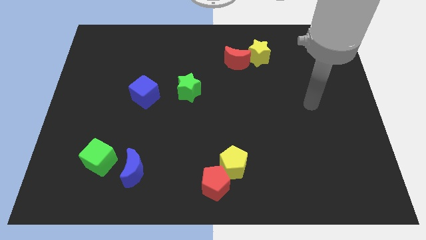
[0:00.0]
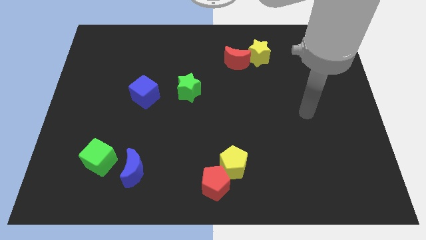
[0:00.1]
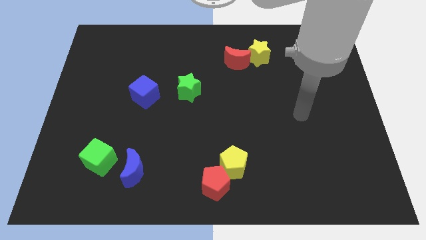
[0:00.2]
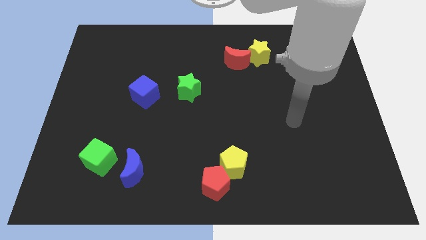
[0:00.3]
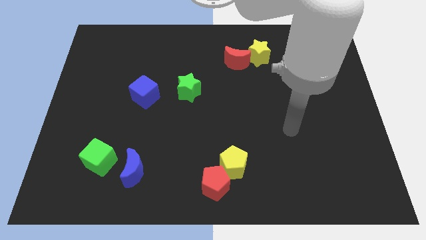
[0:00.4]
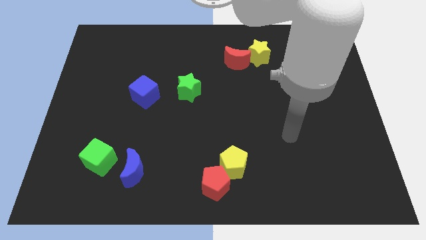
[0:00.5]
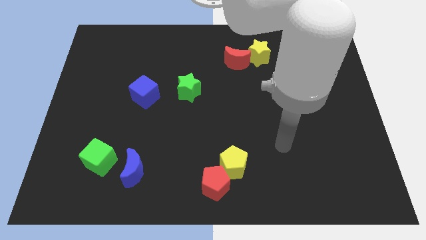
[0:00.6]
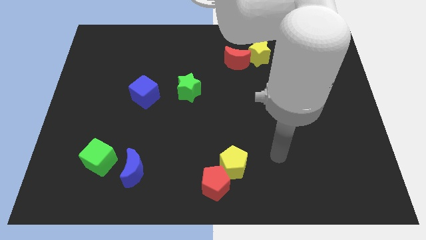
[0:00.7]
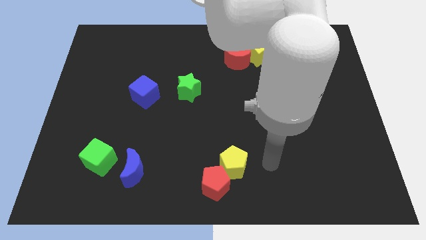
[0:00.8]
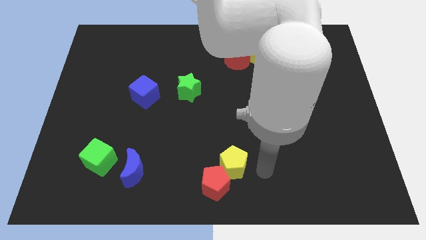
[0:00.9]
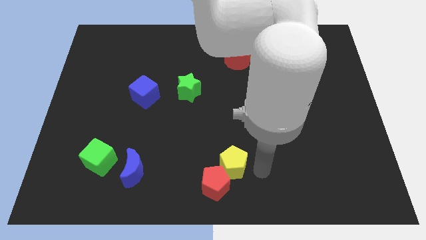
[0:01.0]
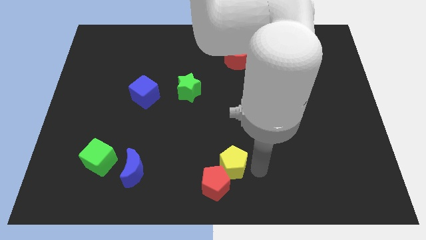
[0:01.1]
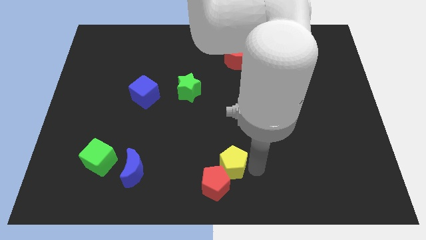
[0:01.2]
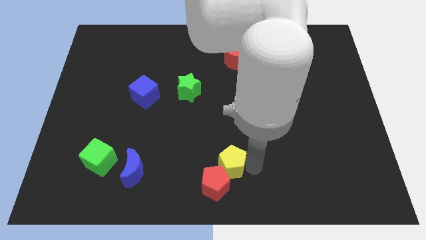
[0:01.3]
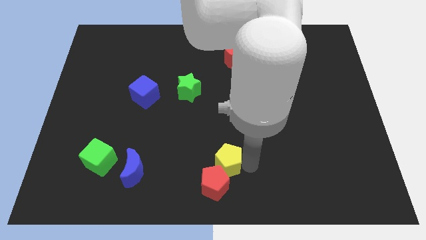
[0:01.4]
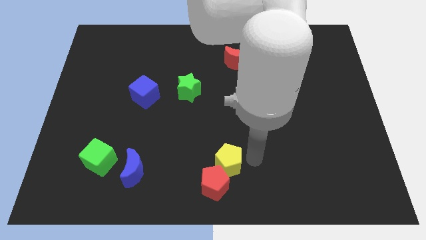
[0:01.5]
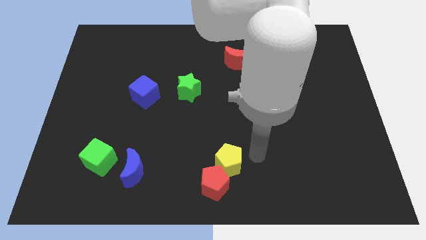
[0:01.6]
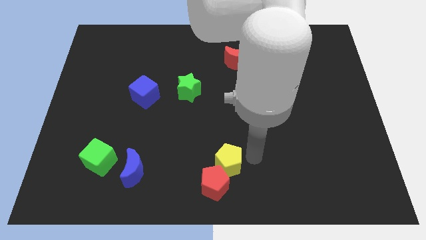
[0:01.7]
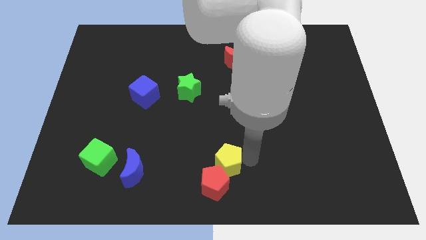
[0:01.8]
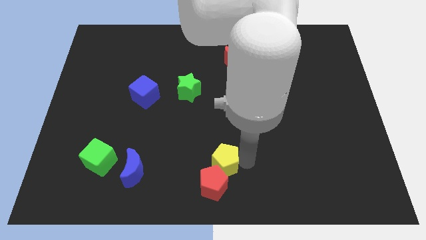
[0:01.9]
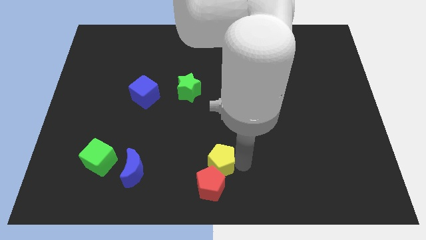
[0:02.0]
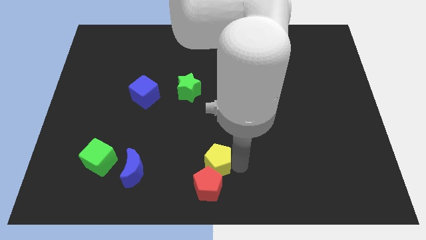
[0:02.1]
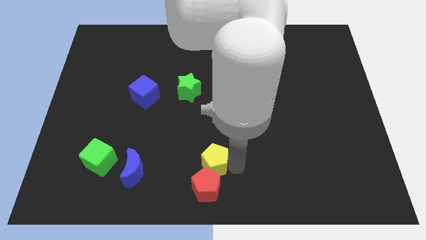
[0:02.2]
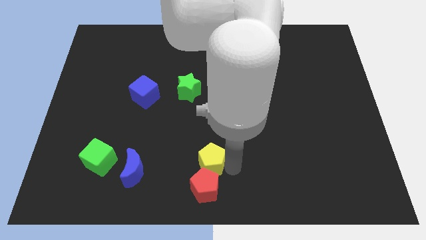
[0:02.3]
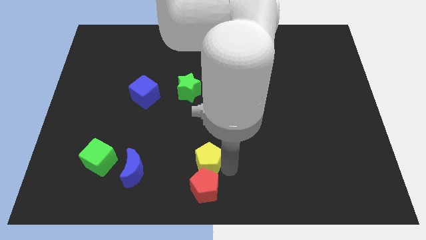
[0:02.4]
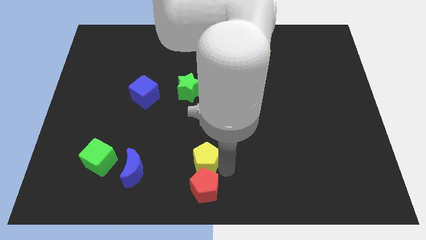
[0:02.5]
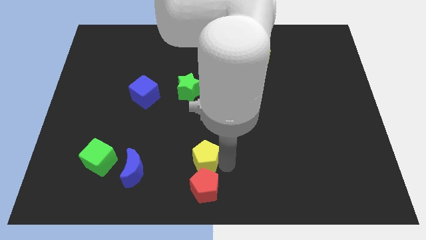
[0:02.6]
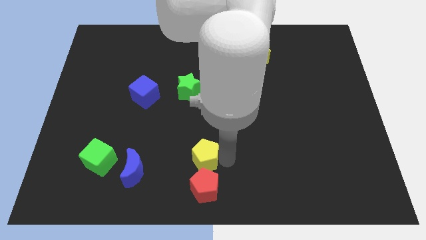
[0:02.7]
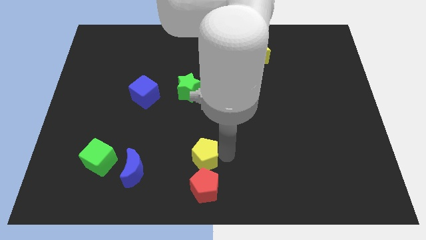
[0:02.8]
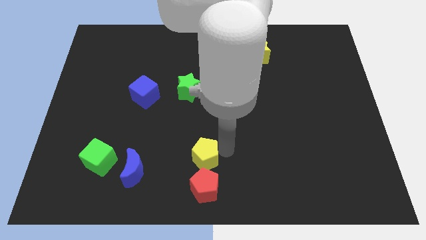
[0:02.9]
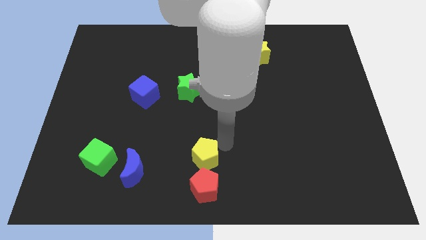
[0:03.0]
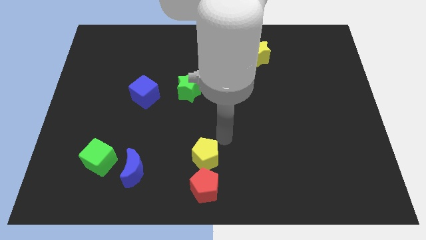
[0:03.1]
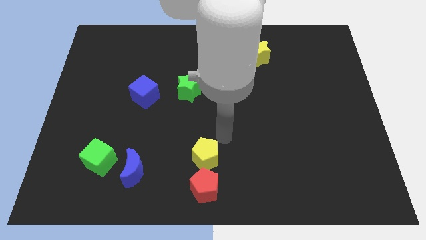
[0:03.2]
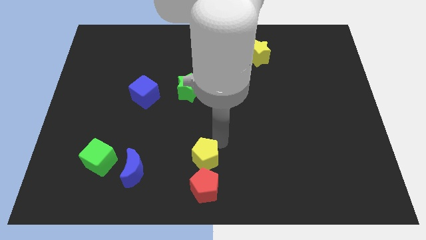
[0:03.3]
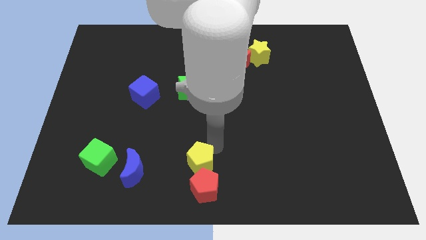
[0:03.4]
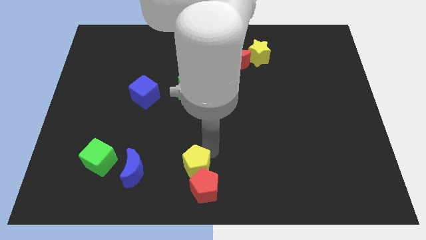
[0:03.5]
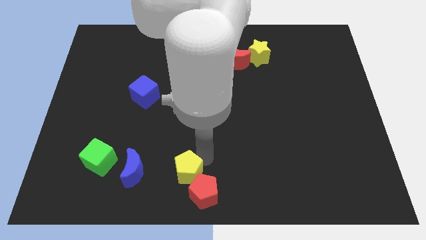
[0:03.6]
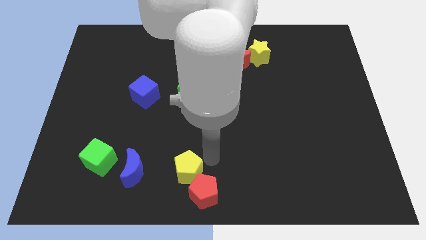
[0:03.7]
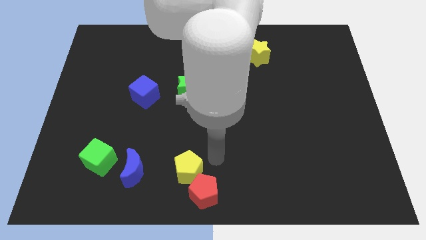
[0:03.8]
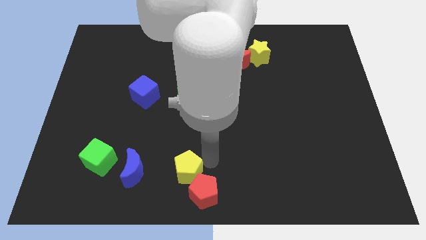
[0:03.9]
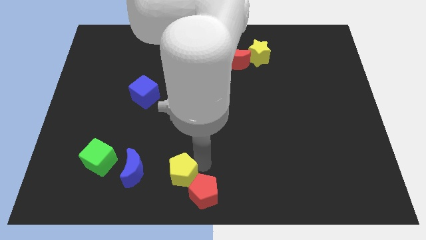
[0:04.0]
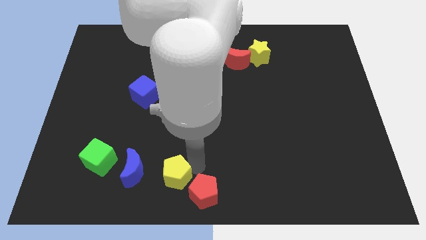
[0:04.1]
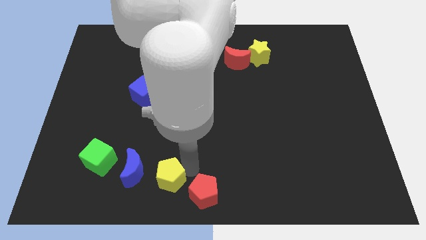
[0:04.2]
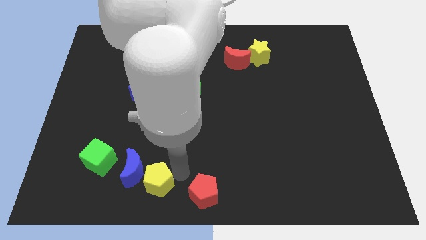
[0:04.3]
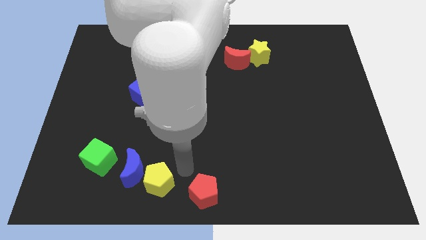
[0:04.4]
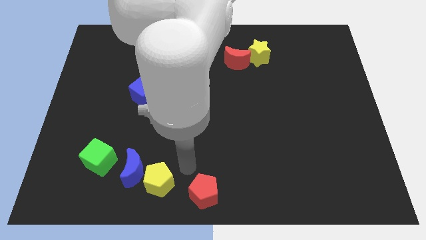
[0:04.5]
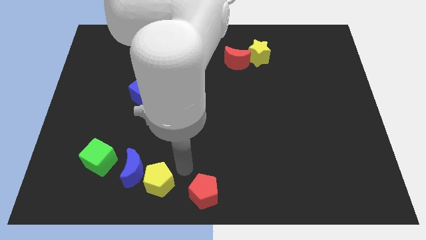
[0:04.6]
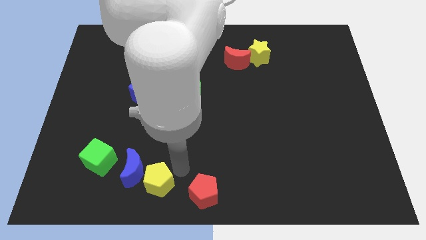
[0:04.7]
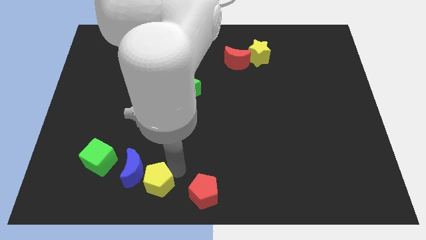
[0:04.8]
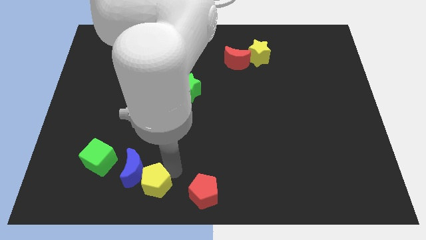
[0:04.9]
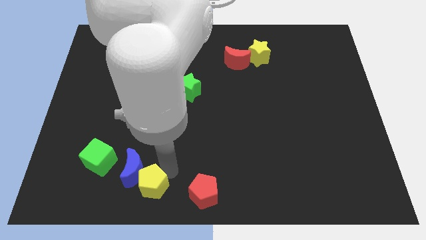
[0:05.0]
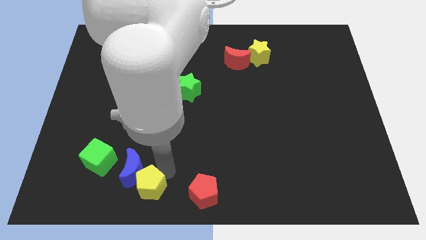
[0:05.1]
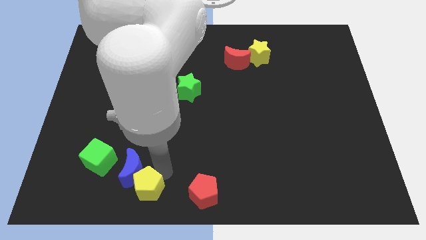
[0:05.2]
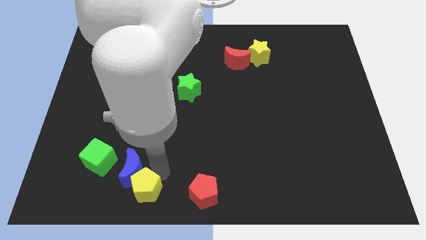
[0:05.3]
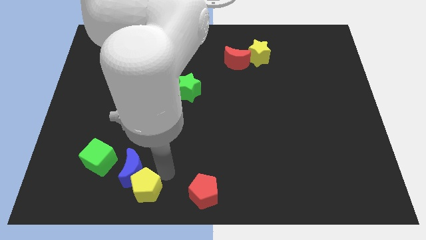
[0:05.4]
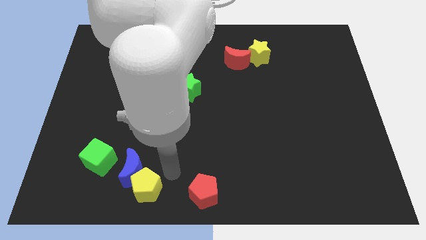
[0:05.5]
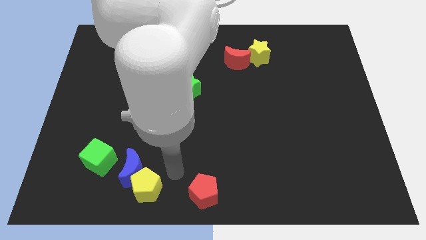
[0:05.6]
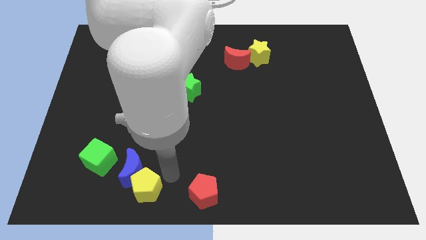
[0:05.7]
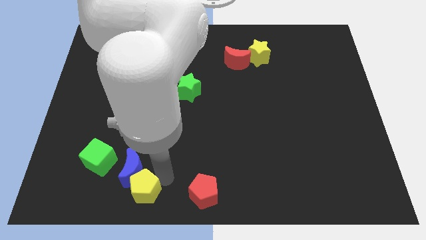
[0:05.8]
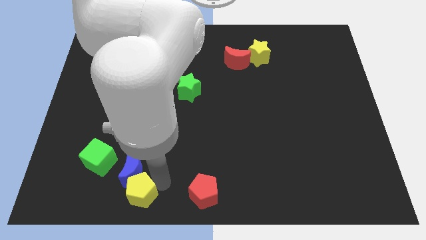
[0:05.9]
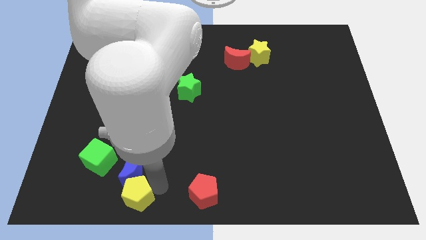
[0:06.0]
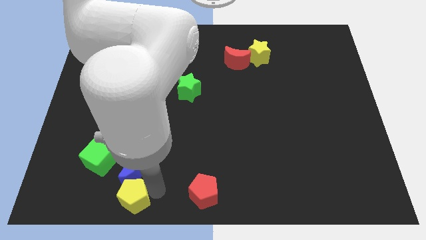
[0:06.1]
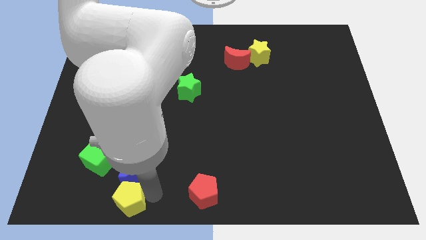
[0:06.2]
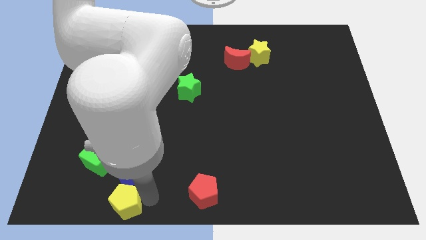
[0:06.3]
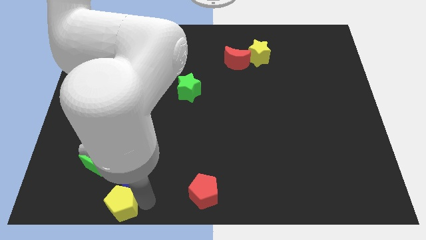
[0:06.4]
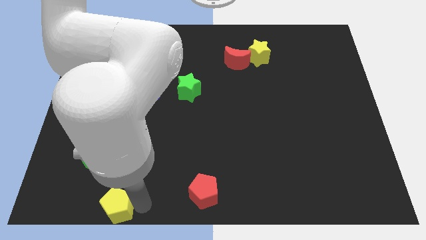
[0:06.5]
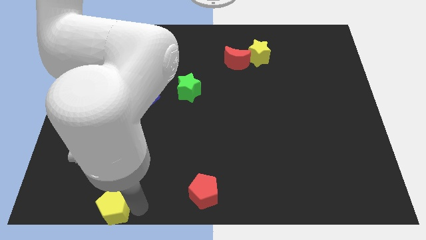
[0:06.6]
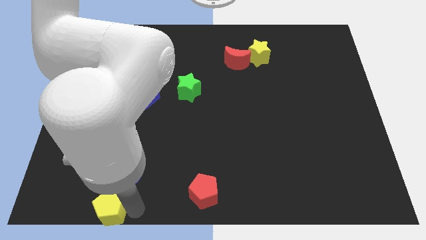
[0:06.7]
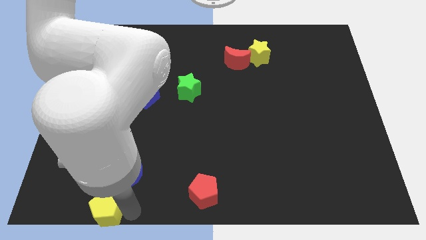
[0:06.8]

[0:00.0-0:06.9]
push the yellow pentagon left

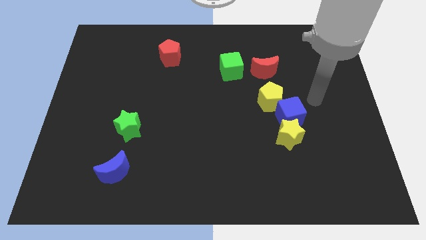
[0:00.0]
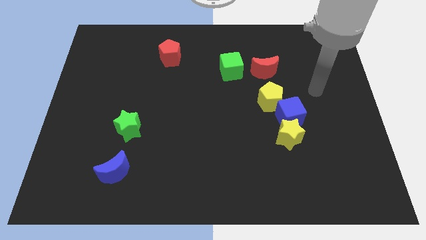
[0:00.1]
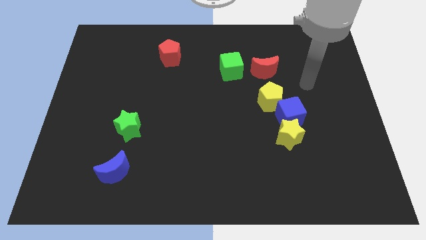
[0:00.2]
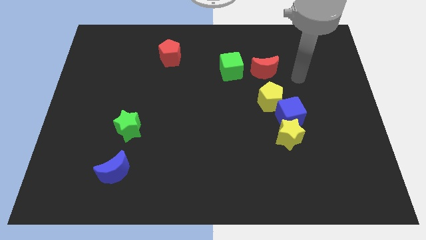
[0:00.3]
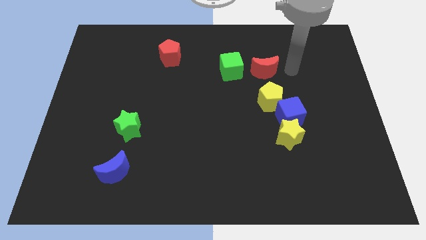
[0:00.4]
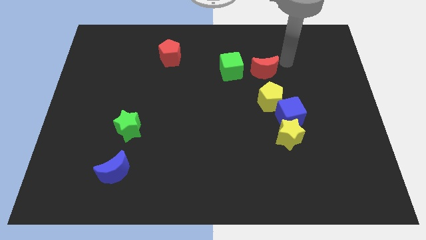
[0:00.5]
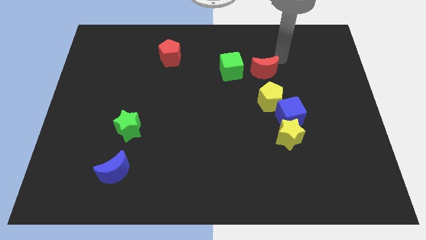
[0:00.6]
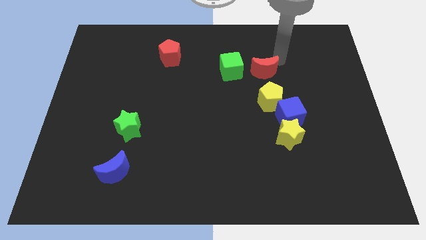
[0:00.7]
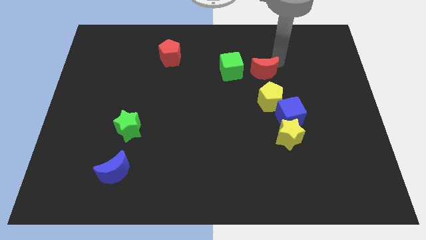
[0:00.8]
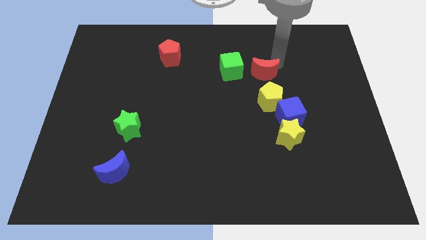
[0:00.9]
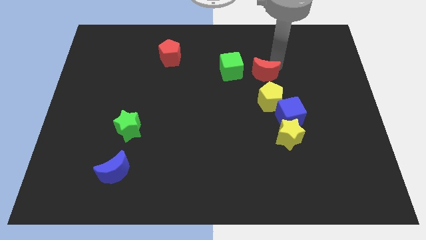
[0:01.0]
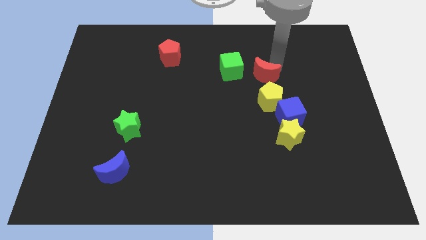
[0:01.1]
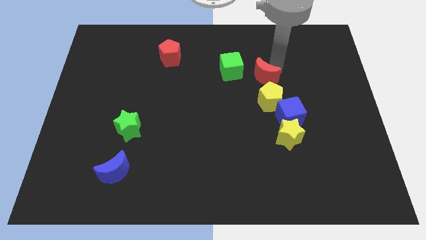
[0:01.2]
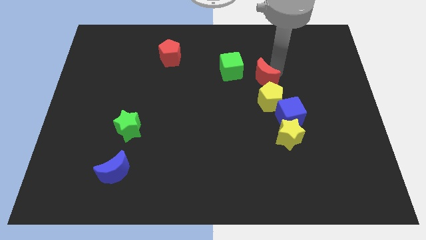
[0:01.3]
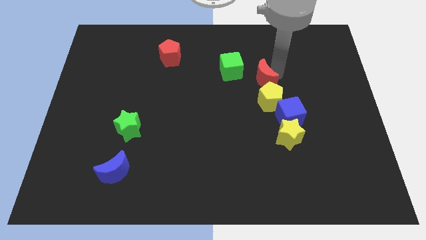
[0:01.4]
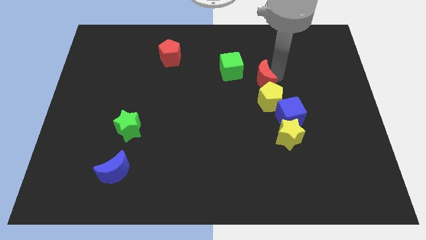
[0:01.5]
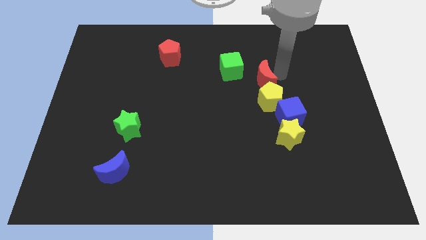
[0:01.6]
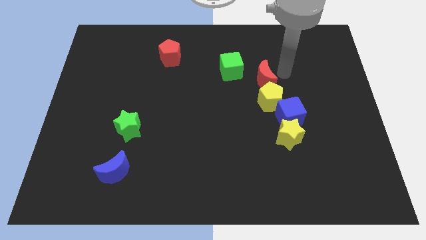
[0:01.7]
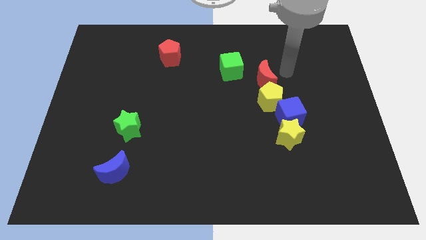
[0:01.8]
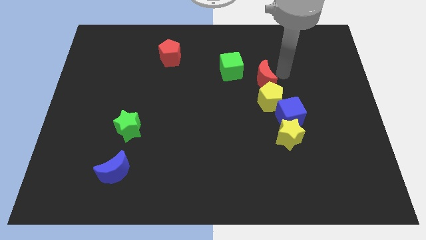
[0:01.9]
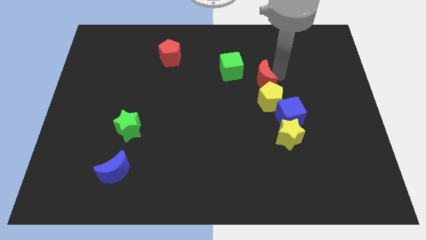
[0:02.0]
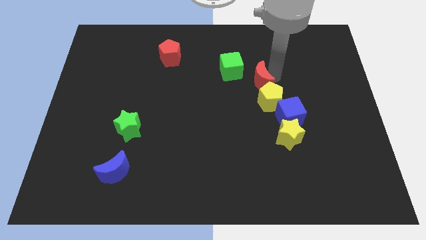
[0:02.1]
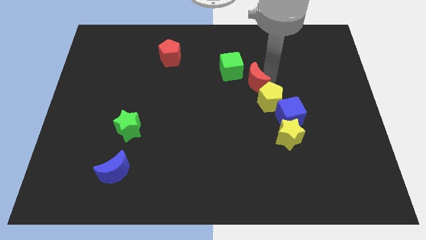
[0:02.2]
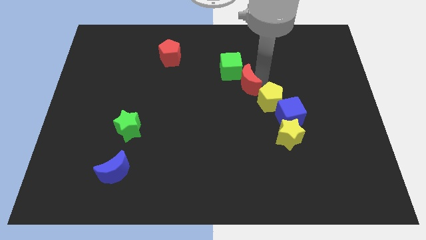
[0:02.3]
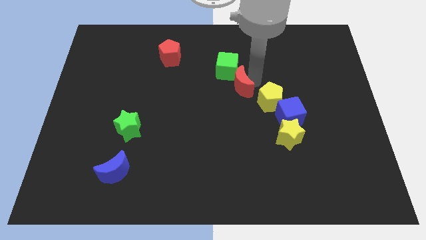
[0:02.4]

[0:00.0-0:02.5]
push the red moon slightly diagonally down and left
